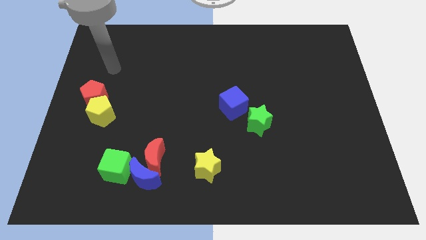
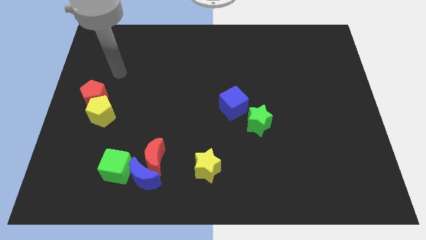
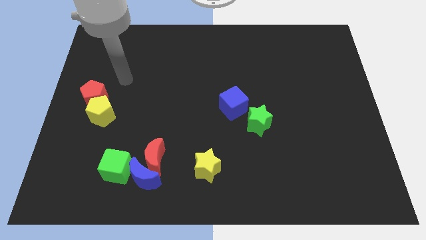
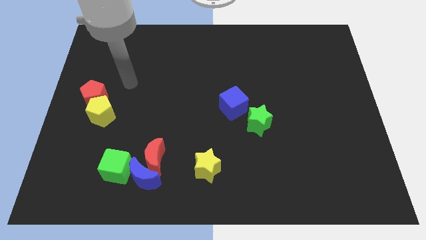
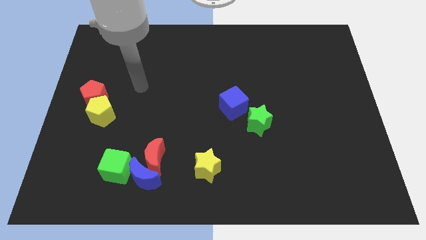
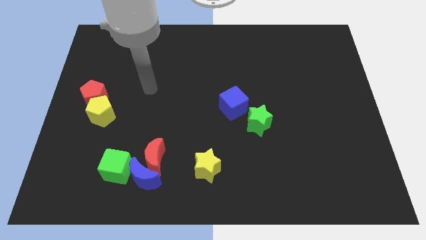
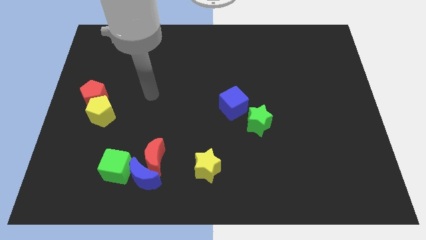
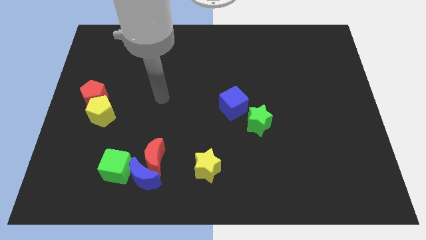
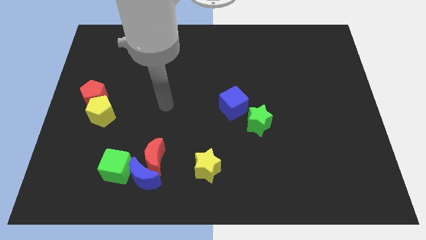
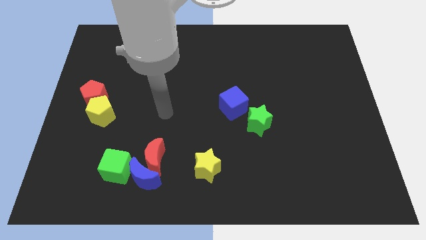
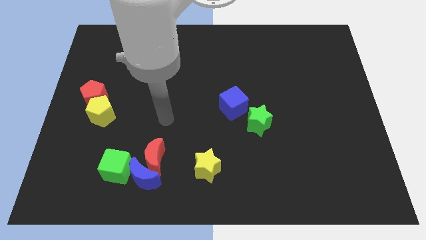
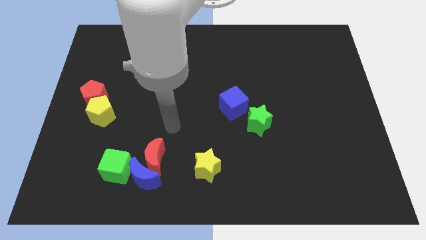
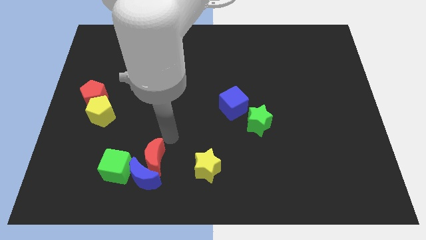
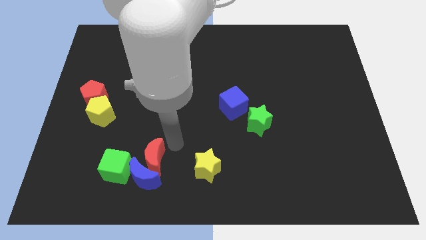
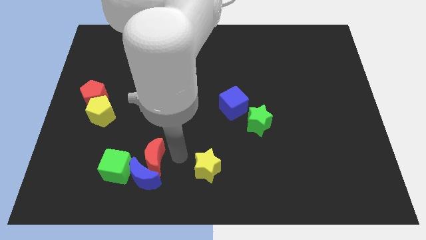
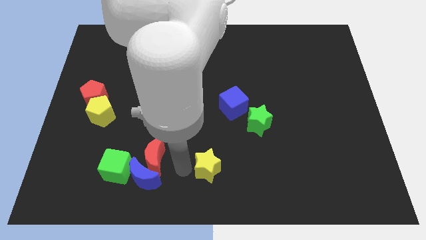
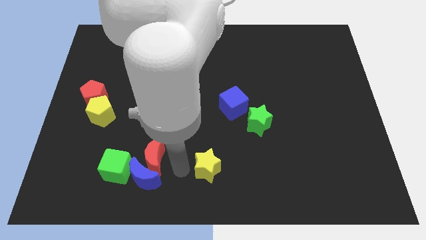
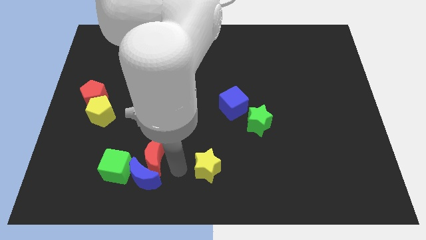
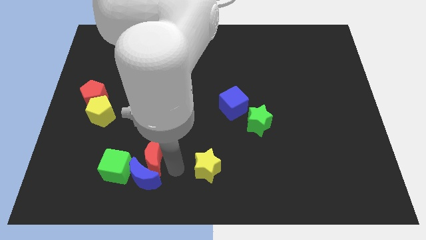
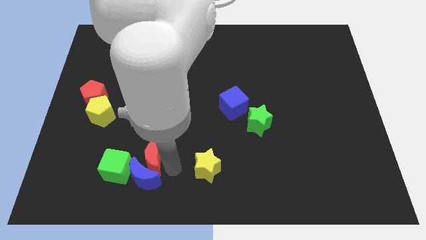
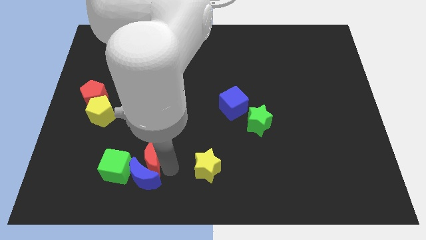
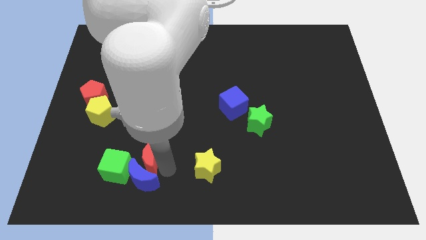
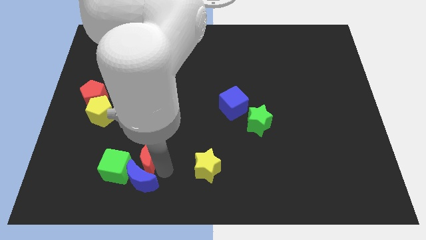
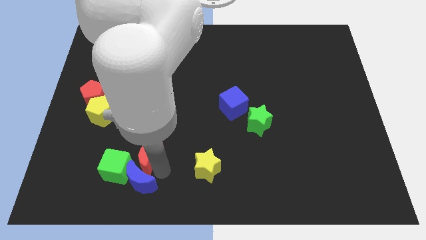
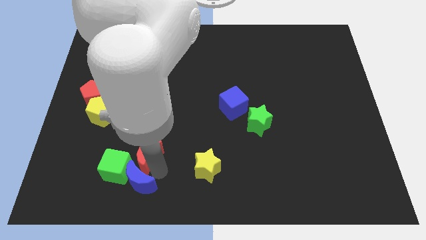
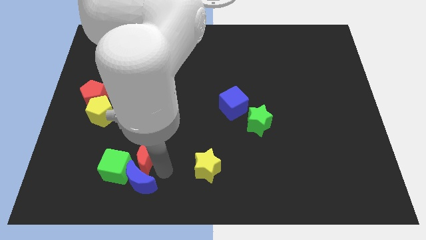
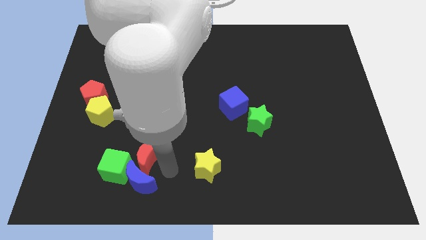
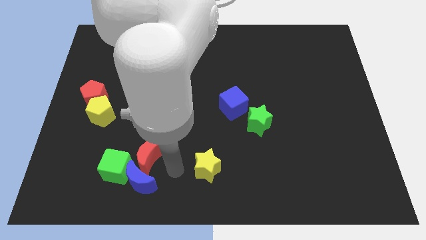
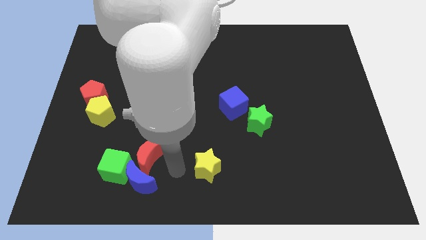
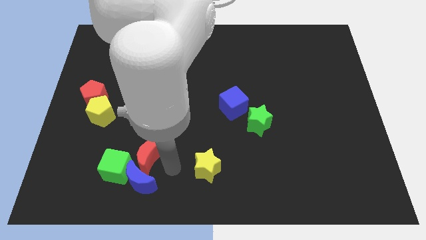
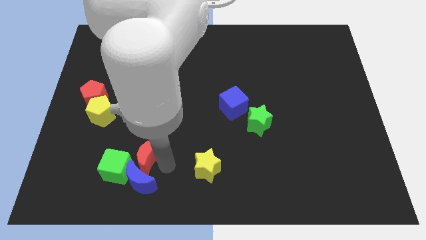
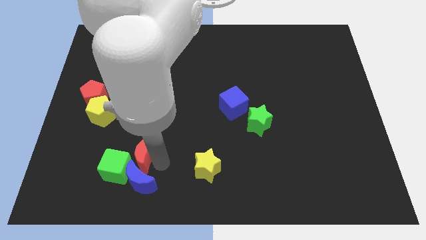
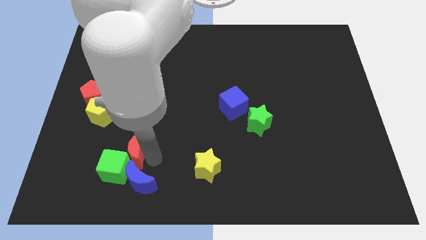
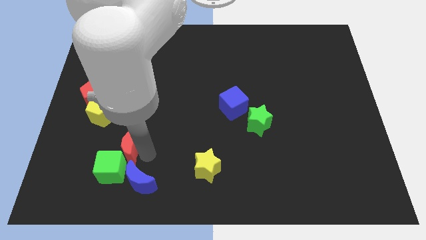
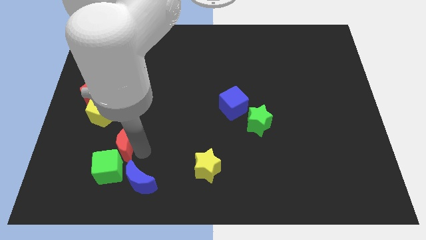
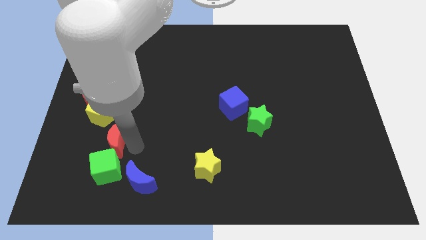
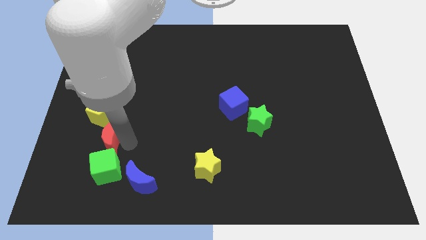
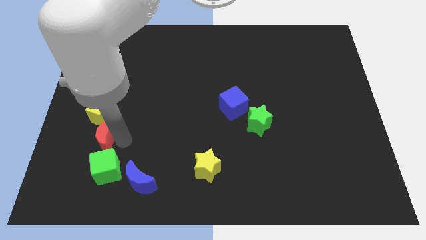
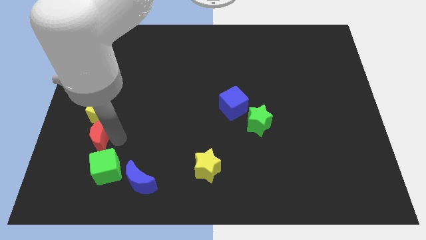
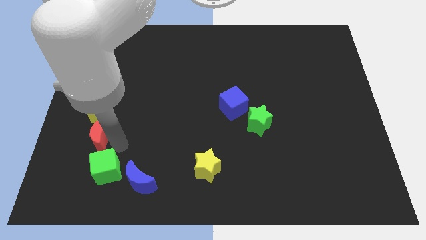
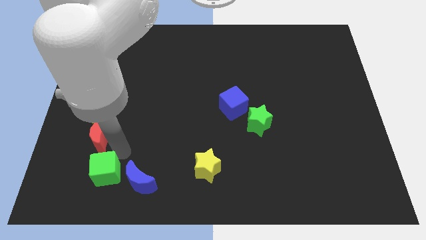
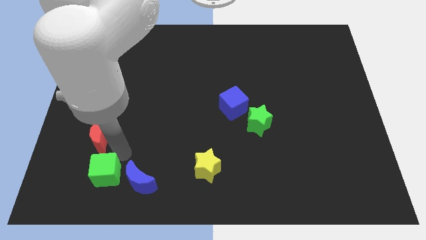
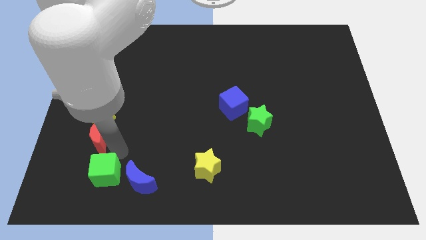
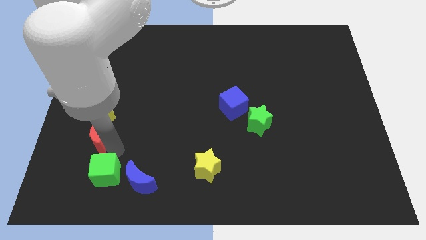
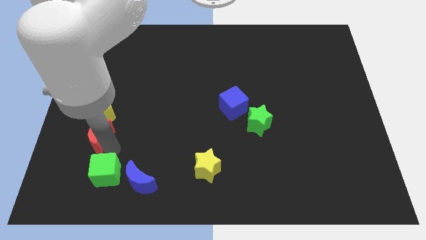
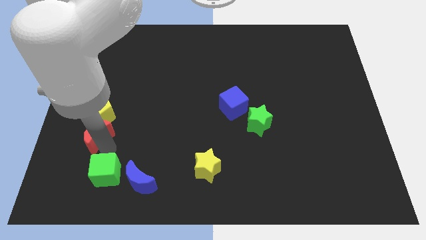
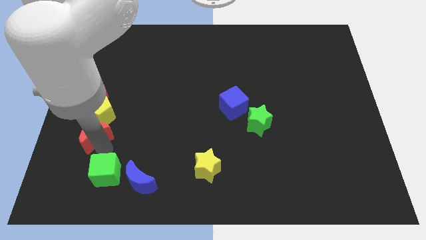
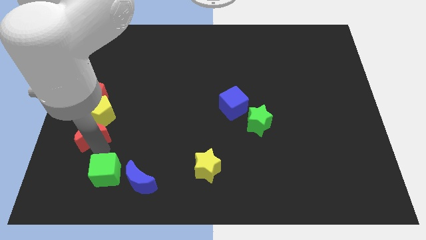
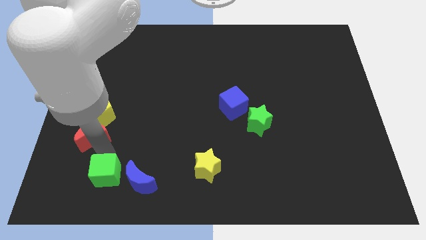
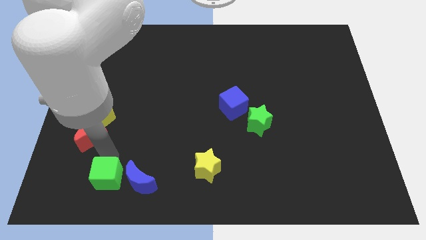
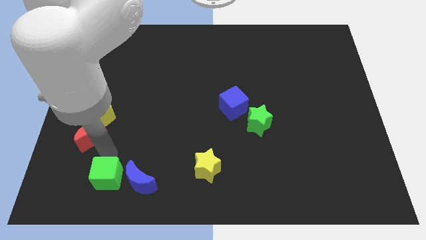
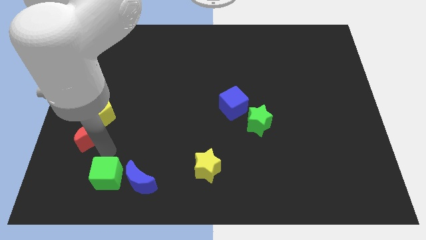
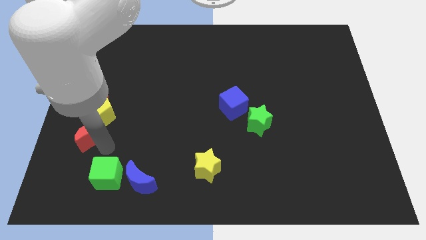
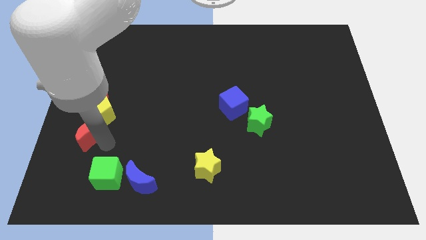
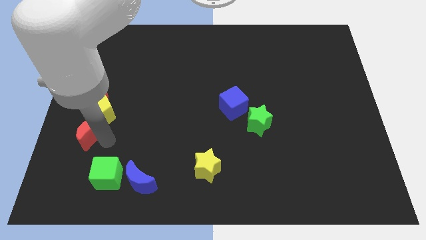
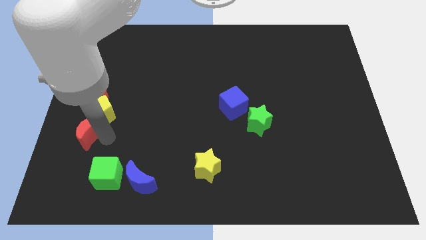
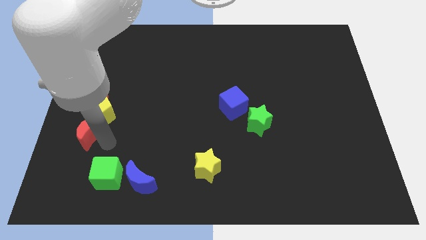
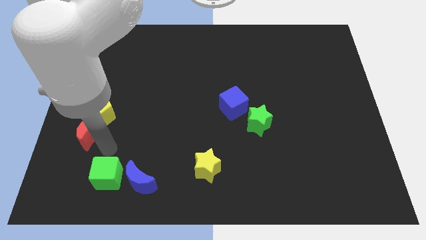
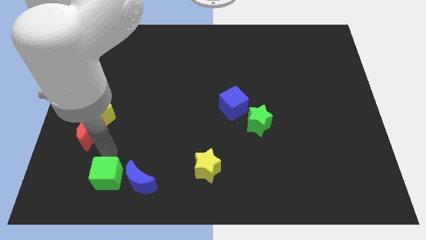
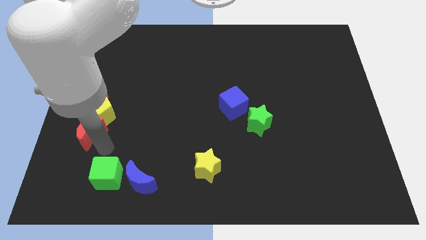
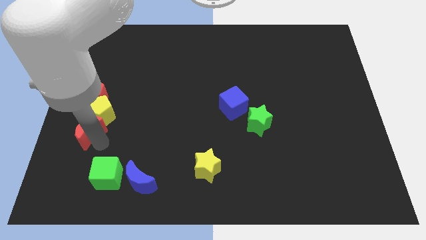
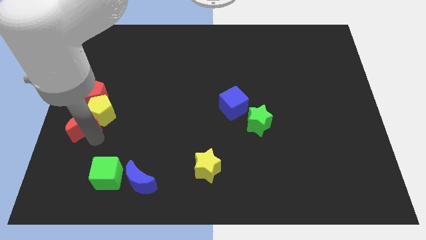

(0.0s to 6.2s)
slide the red moon to the center left
